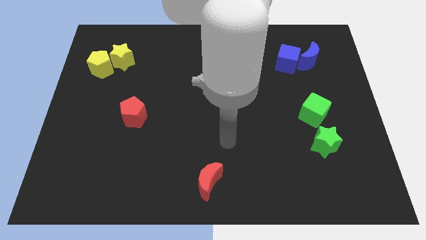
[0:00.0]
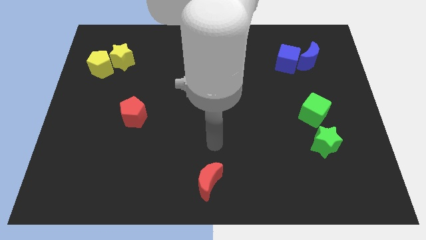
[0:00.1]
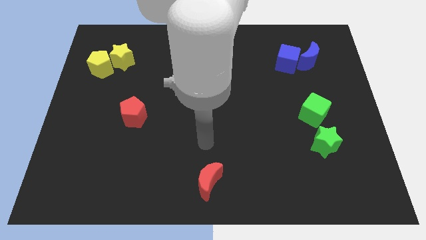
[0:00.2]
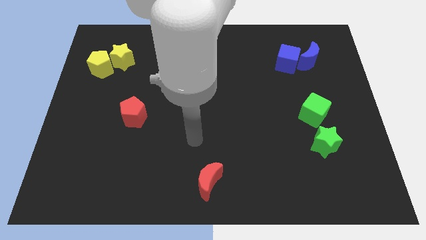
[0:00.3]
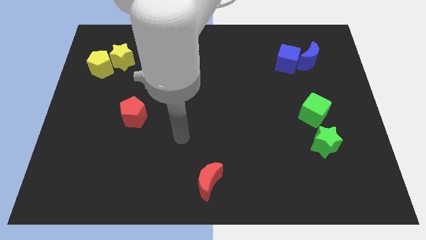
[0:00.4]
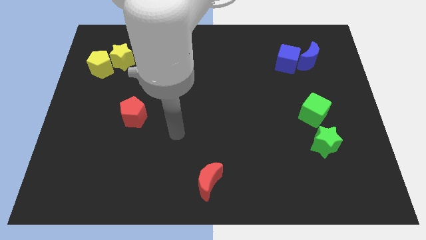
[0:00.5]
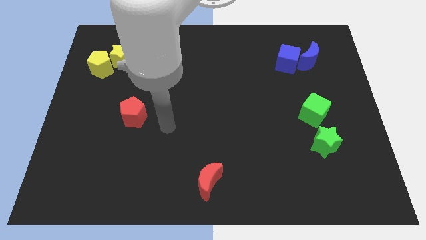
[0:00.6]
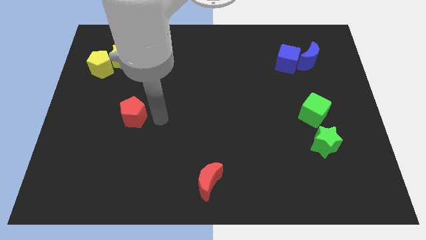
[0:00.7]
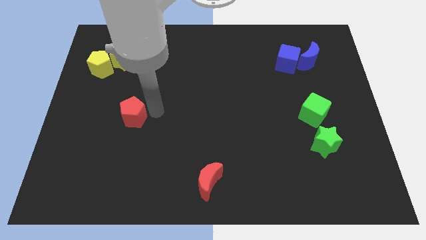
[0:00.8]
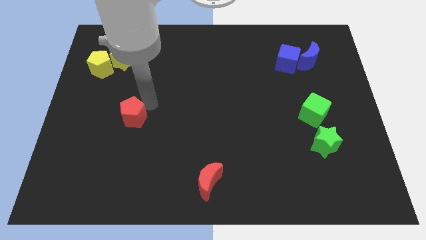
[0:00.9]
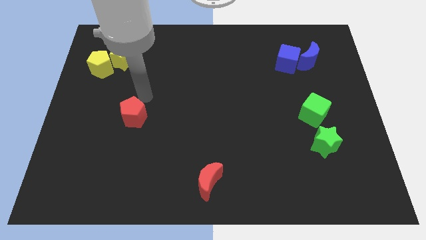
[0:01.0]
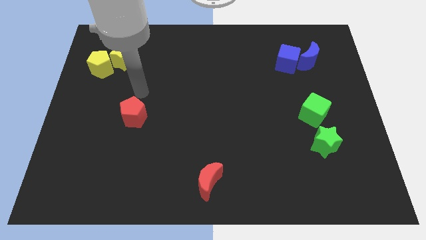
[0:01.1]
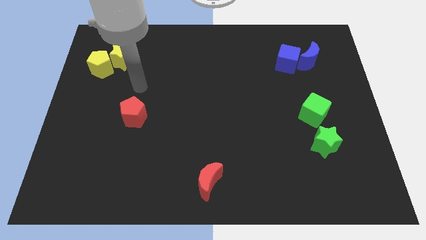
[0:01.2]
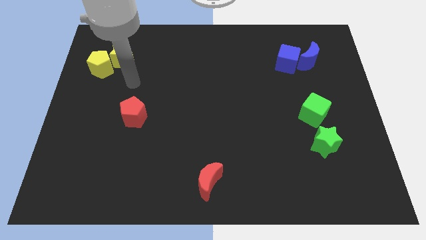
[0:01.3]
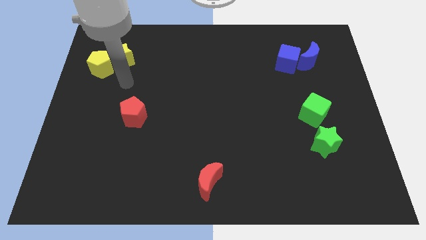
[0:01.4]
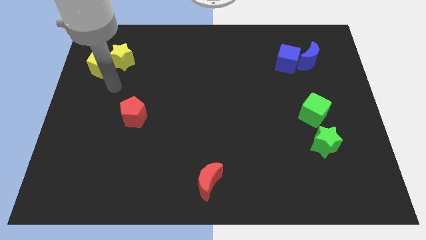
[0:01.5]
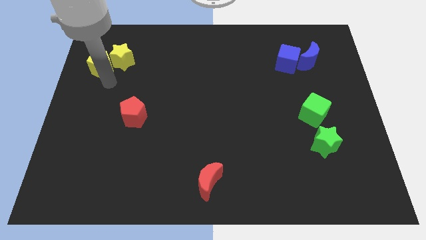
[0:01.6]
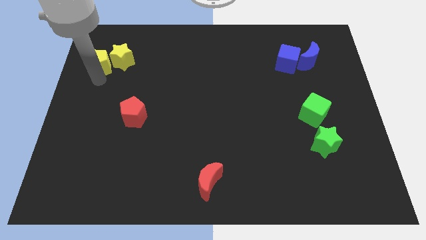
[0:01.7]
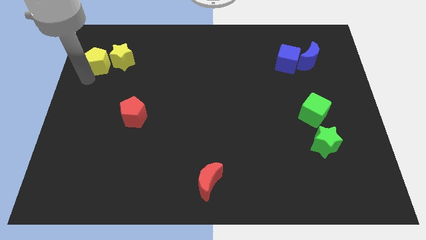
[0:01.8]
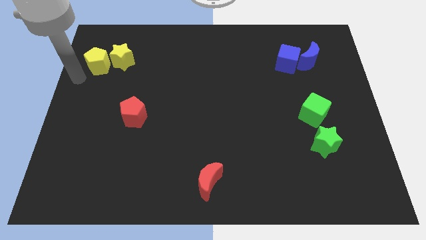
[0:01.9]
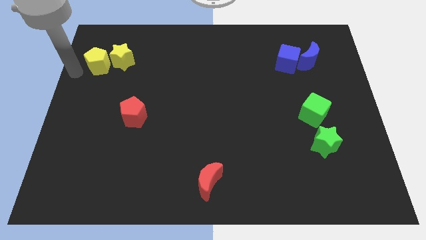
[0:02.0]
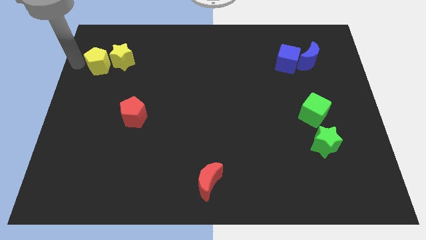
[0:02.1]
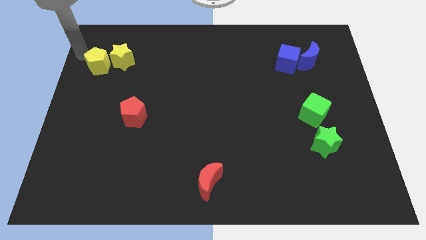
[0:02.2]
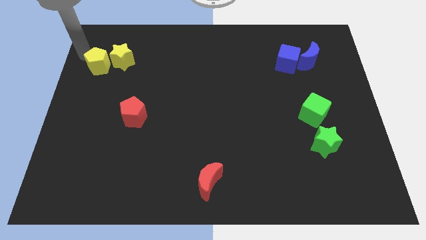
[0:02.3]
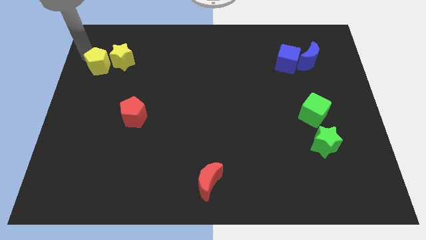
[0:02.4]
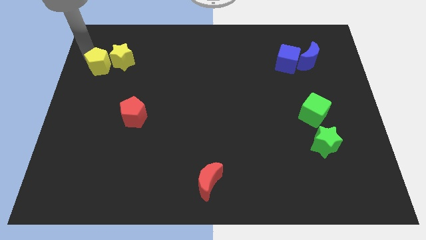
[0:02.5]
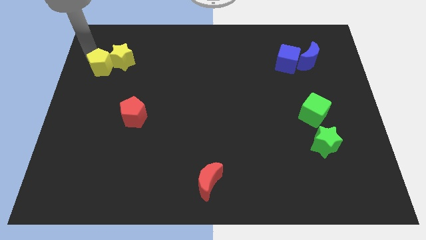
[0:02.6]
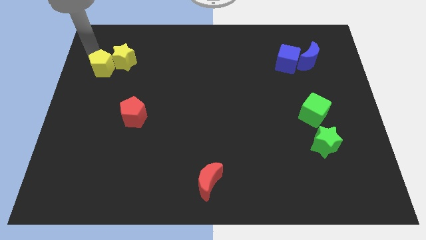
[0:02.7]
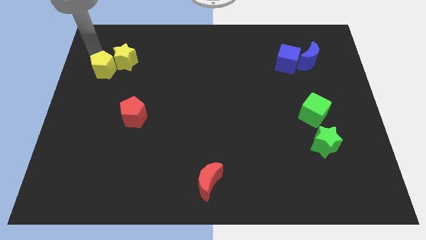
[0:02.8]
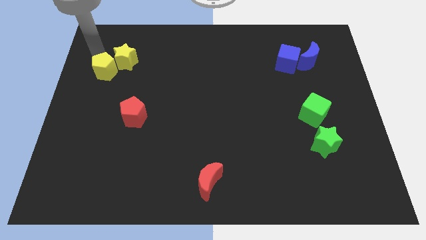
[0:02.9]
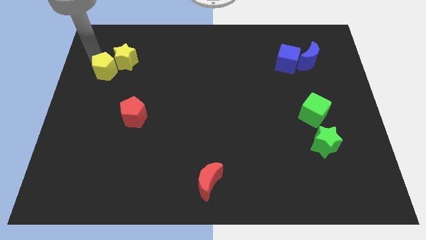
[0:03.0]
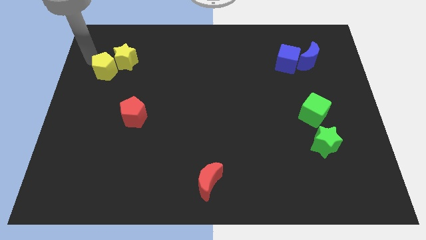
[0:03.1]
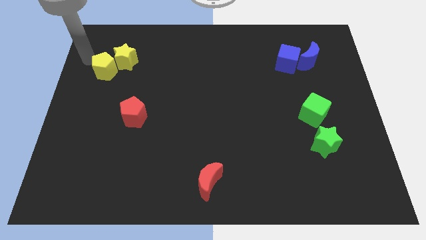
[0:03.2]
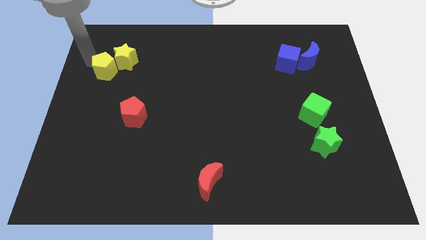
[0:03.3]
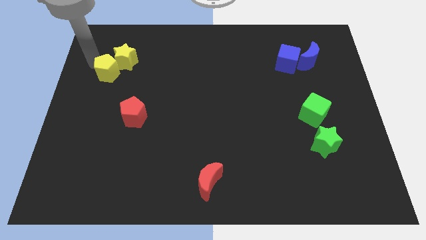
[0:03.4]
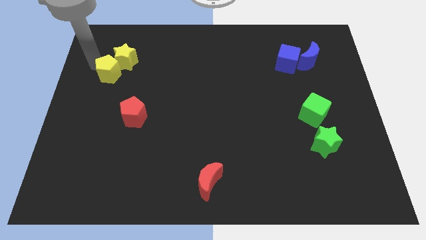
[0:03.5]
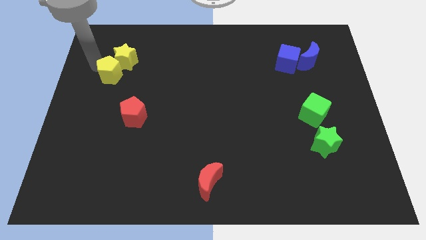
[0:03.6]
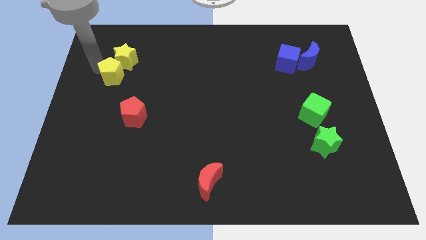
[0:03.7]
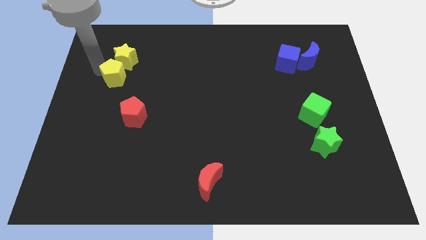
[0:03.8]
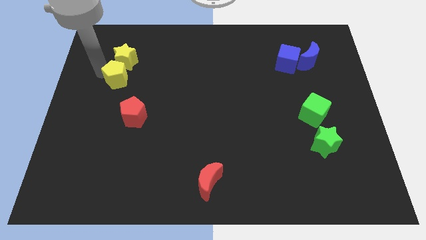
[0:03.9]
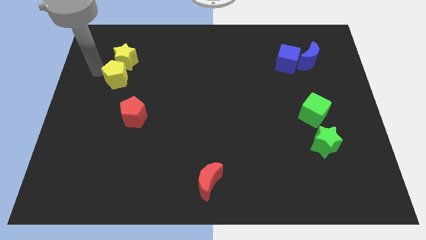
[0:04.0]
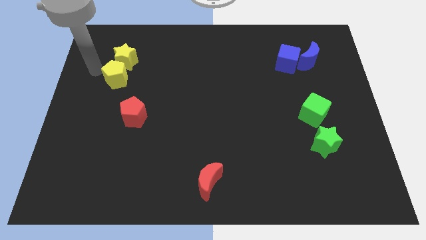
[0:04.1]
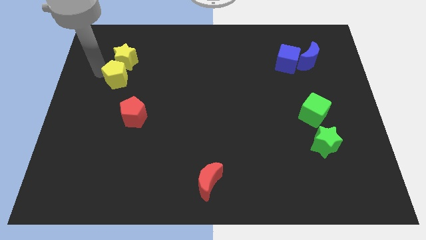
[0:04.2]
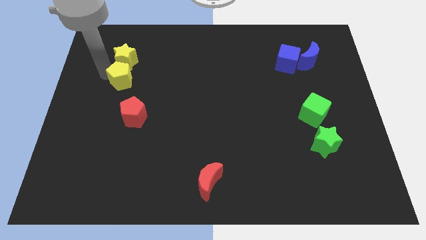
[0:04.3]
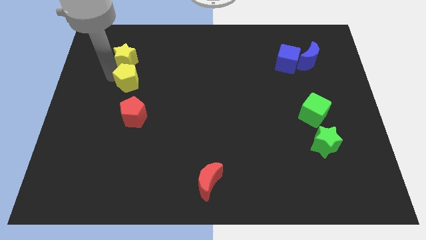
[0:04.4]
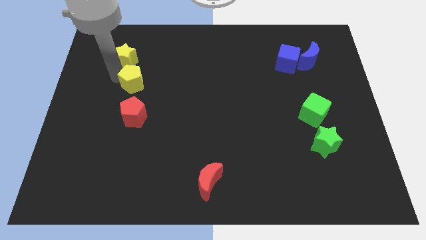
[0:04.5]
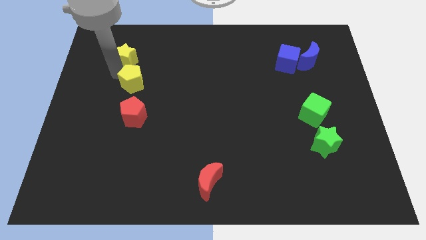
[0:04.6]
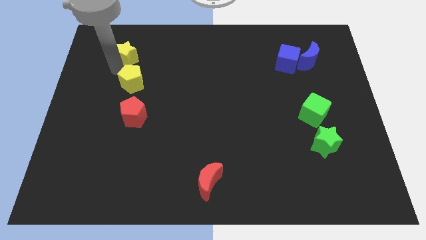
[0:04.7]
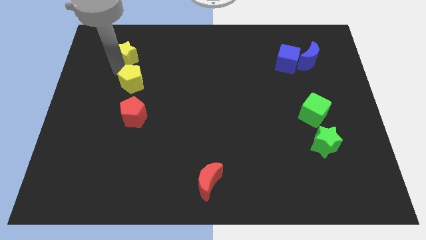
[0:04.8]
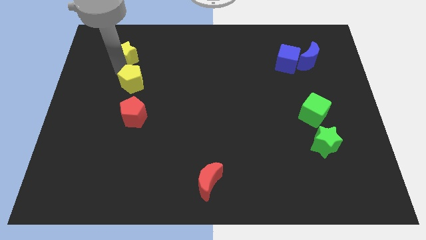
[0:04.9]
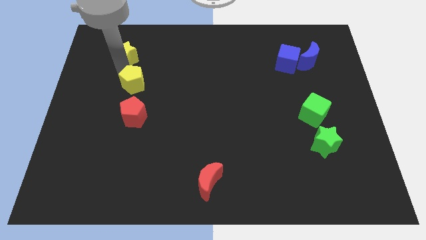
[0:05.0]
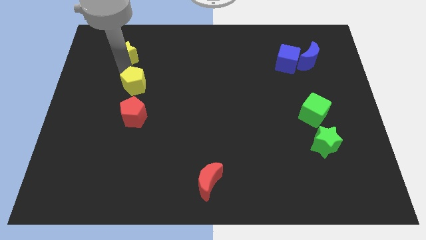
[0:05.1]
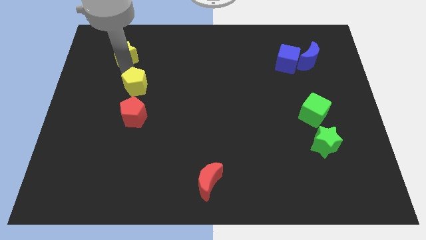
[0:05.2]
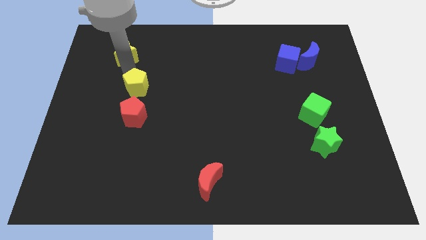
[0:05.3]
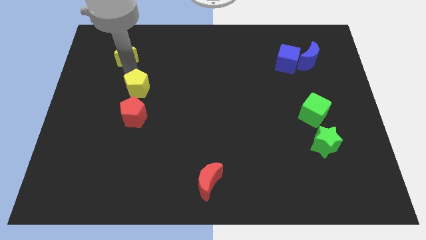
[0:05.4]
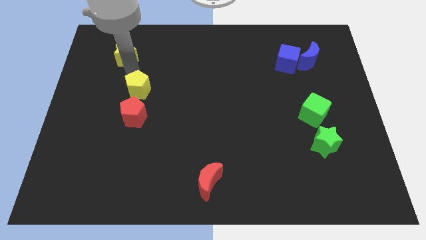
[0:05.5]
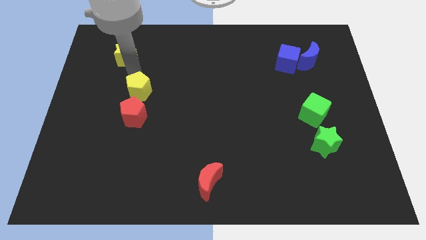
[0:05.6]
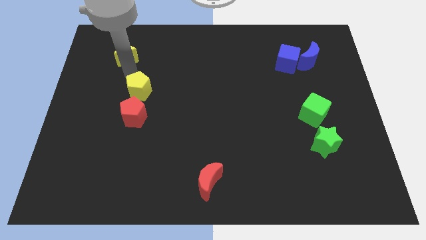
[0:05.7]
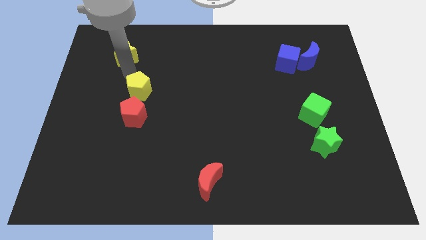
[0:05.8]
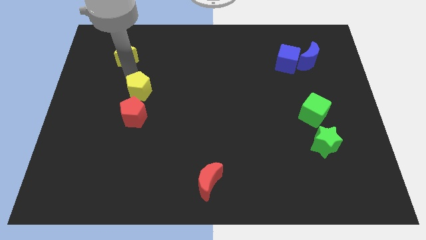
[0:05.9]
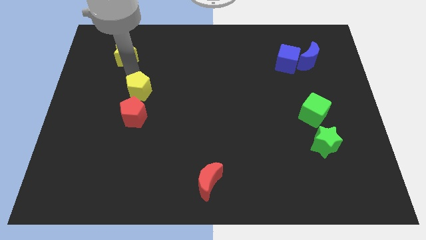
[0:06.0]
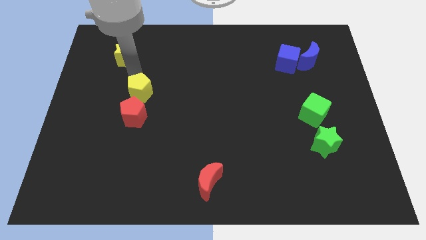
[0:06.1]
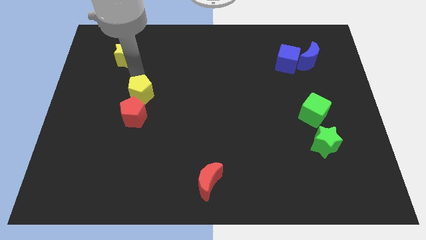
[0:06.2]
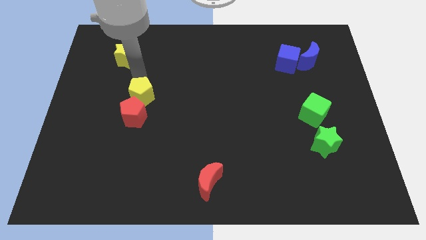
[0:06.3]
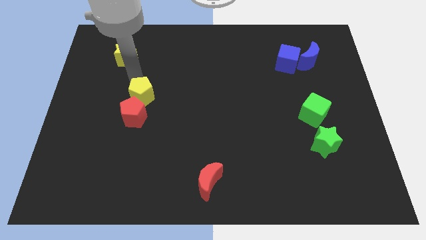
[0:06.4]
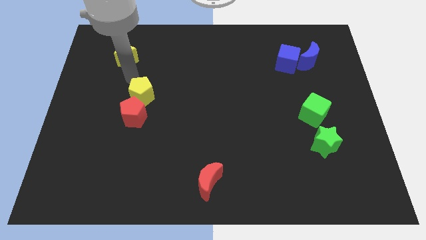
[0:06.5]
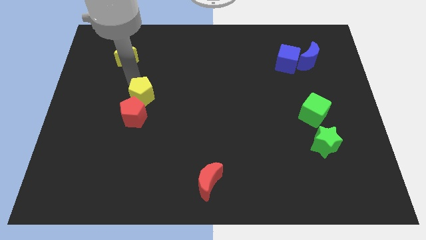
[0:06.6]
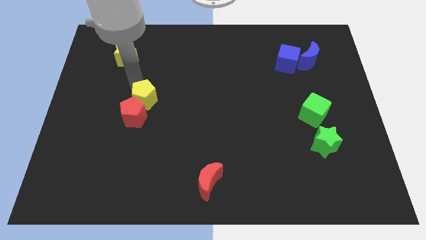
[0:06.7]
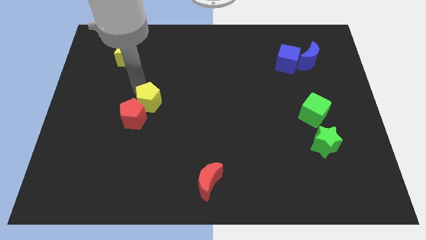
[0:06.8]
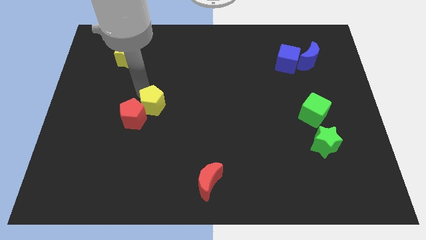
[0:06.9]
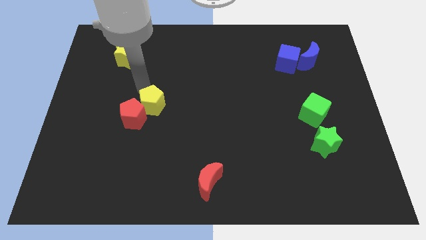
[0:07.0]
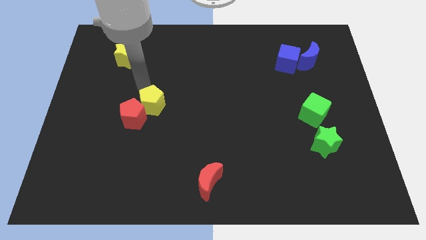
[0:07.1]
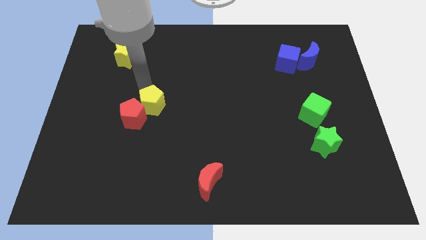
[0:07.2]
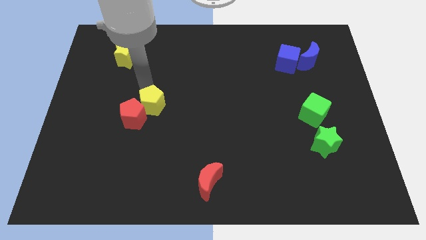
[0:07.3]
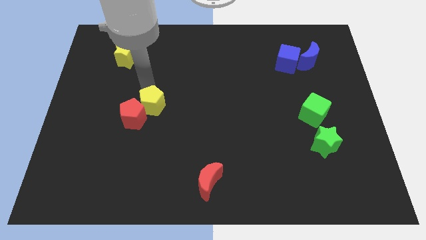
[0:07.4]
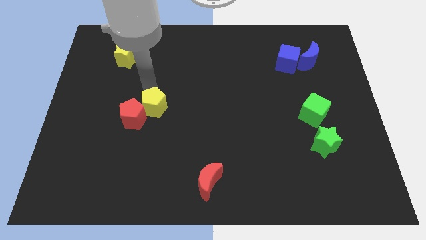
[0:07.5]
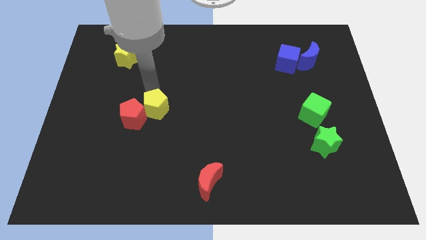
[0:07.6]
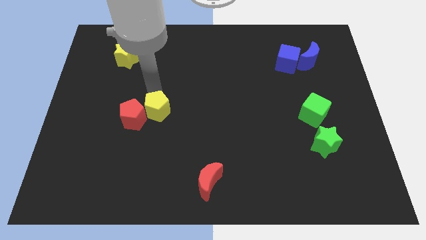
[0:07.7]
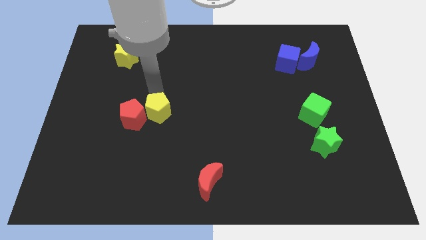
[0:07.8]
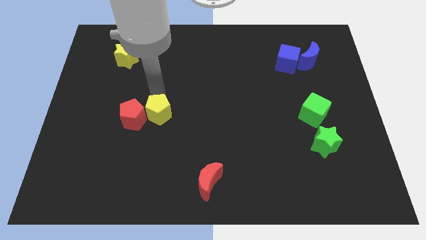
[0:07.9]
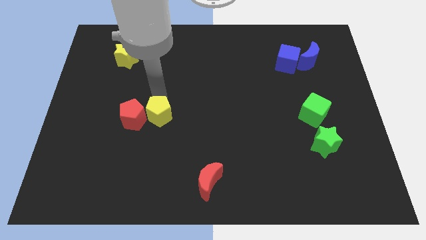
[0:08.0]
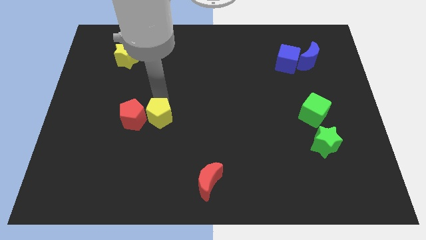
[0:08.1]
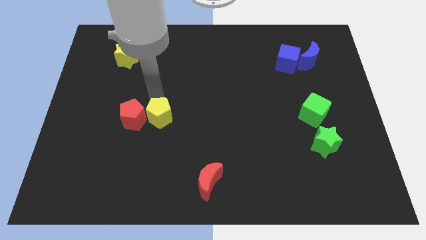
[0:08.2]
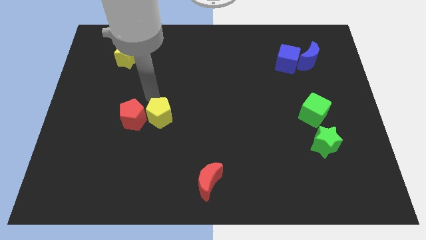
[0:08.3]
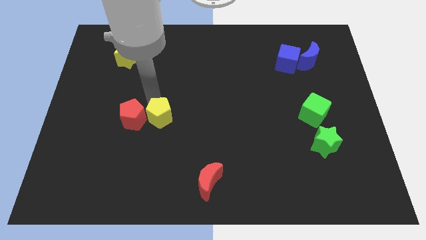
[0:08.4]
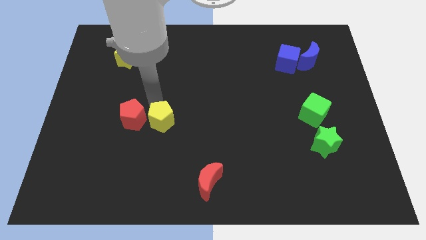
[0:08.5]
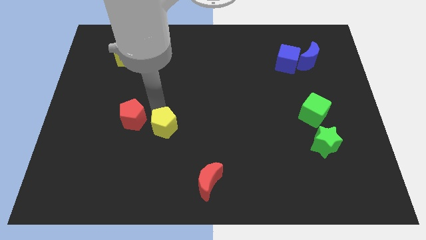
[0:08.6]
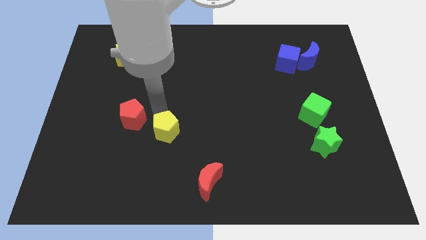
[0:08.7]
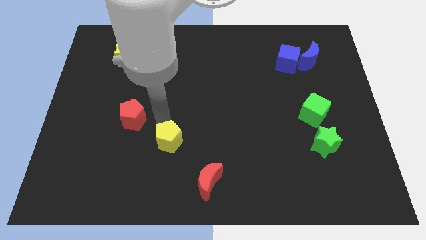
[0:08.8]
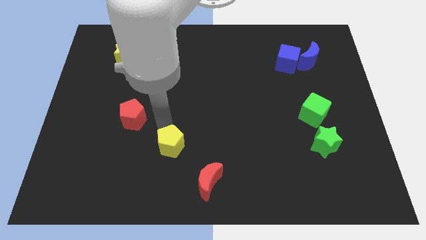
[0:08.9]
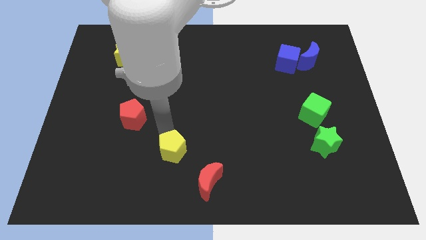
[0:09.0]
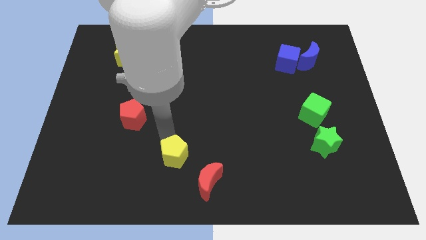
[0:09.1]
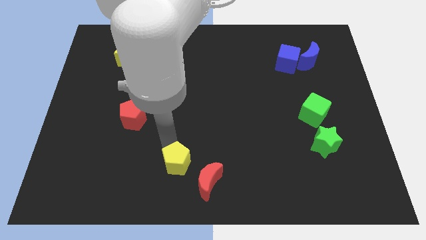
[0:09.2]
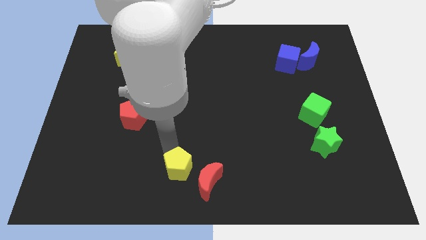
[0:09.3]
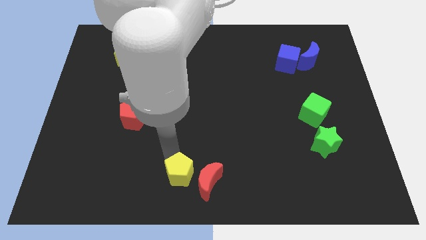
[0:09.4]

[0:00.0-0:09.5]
put the yellow pentagon towards the red moon
